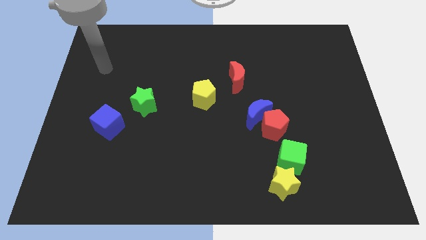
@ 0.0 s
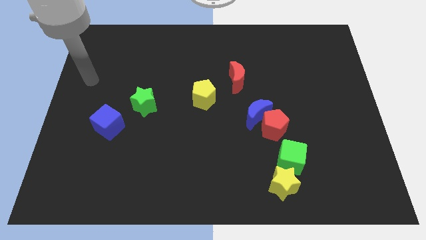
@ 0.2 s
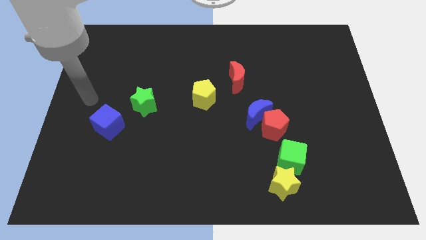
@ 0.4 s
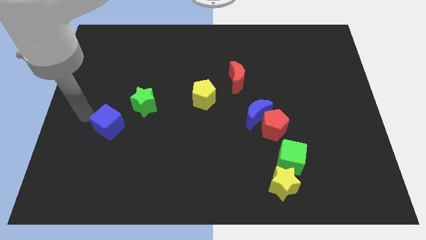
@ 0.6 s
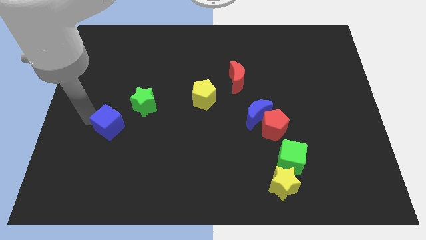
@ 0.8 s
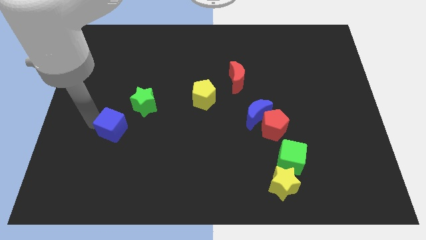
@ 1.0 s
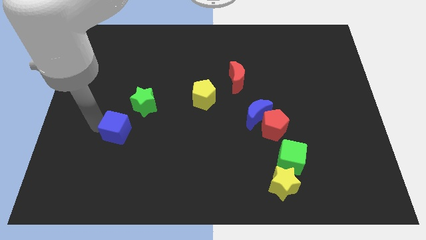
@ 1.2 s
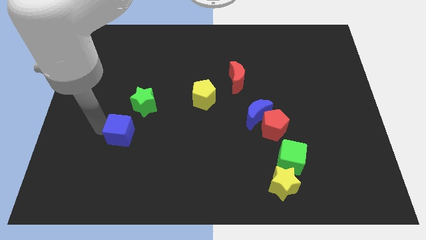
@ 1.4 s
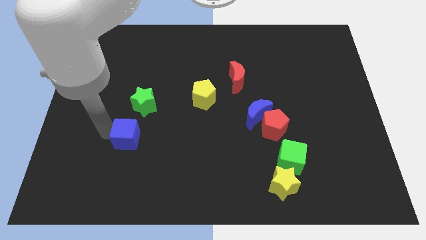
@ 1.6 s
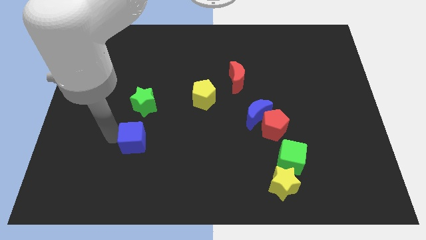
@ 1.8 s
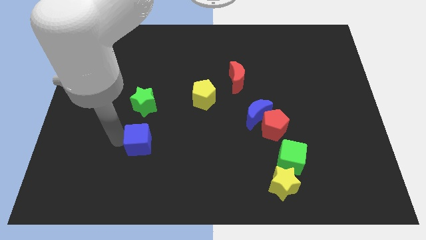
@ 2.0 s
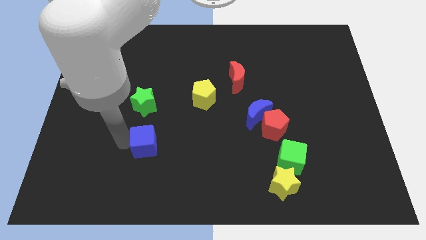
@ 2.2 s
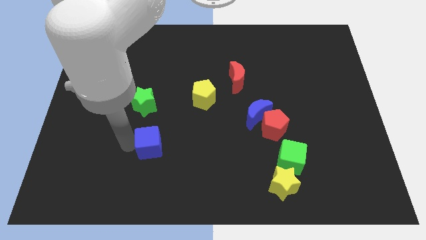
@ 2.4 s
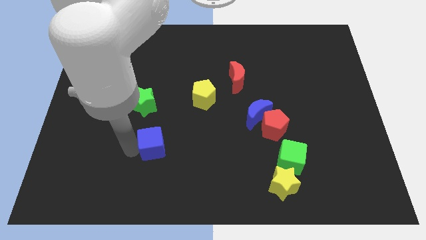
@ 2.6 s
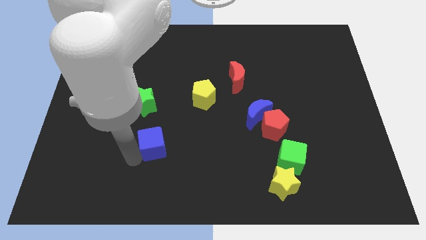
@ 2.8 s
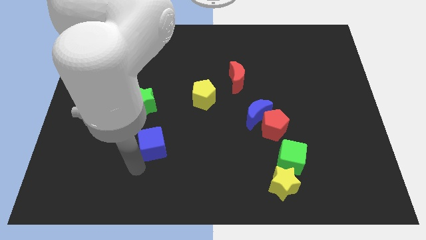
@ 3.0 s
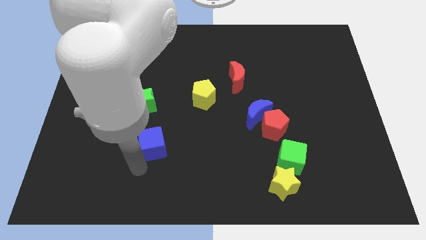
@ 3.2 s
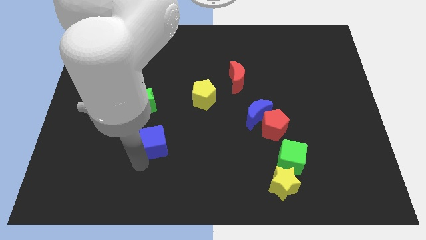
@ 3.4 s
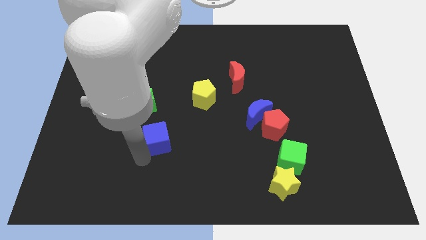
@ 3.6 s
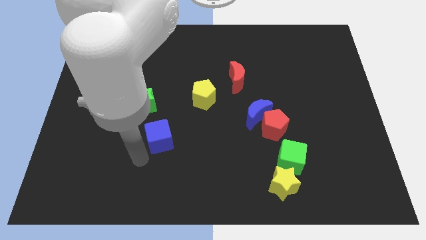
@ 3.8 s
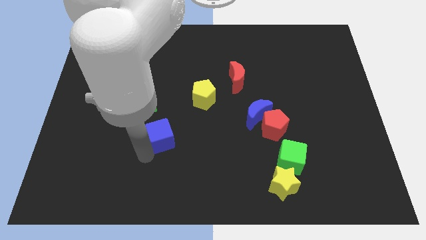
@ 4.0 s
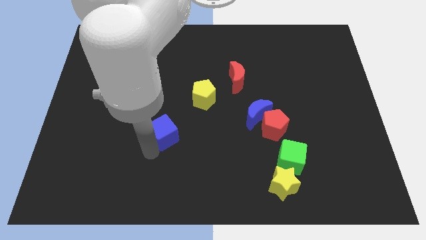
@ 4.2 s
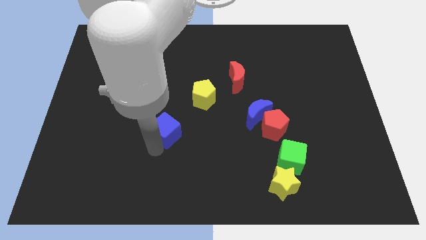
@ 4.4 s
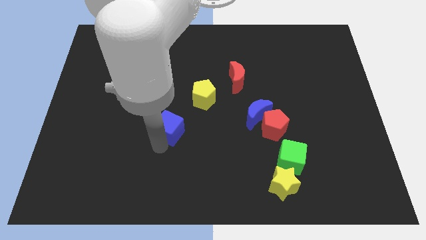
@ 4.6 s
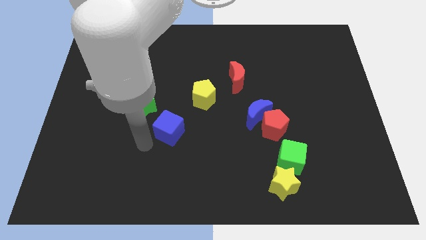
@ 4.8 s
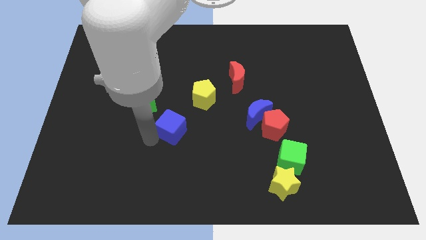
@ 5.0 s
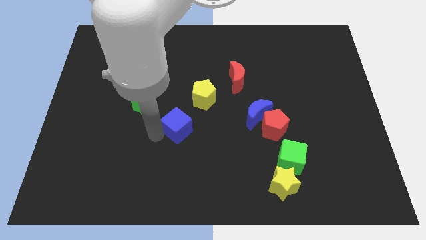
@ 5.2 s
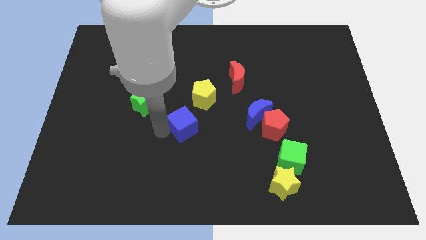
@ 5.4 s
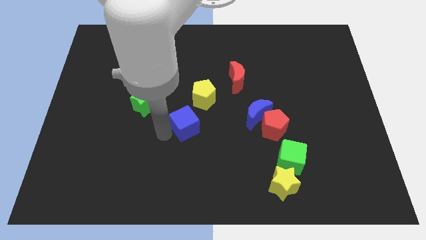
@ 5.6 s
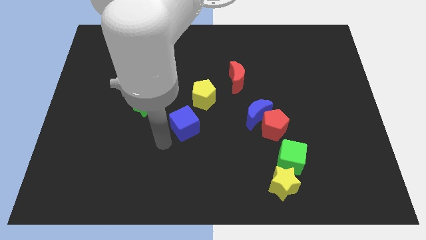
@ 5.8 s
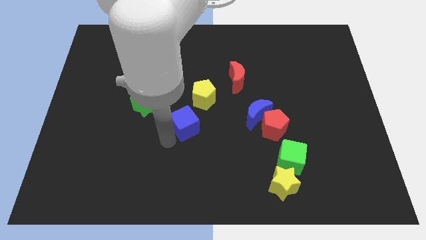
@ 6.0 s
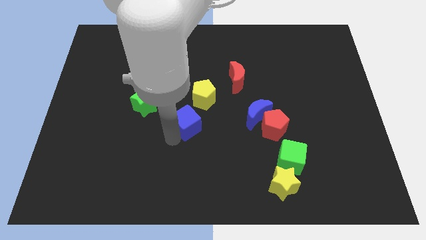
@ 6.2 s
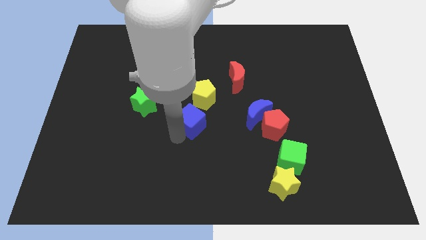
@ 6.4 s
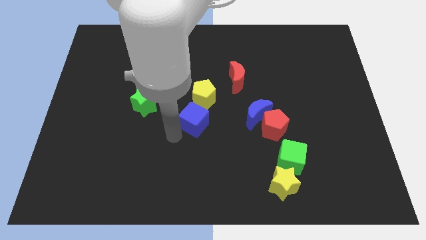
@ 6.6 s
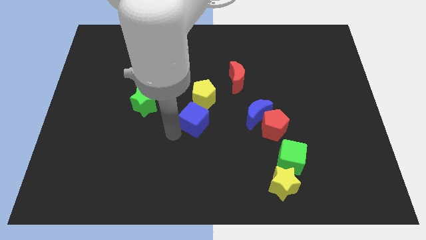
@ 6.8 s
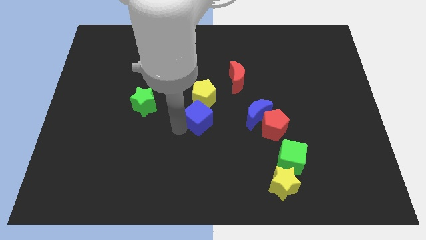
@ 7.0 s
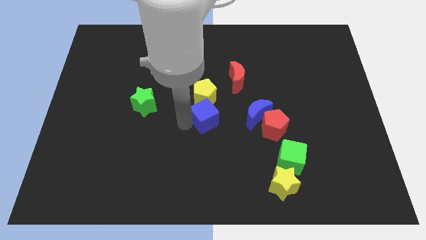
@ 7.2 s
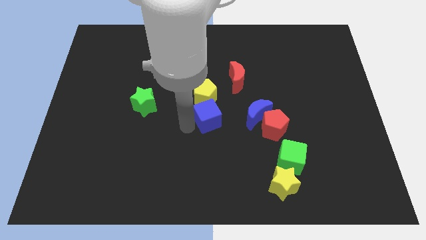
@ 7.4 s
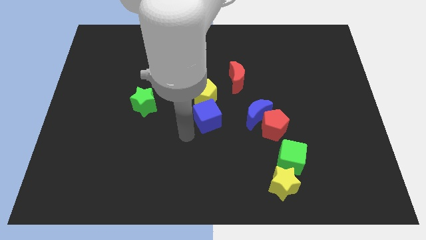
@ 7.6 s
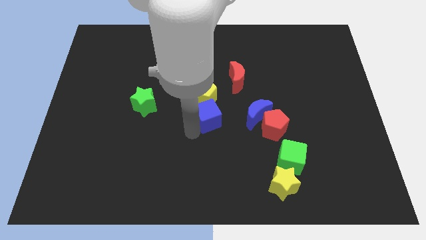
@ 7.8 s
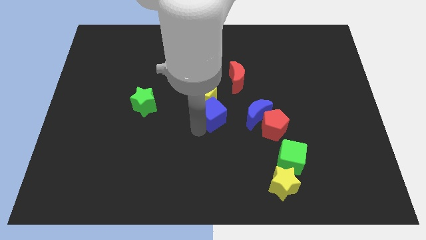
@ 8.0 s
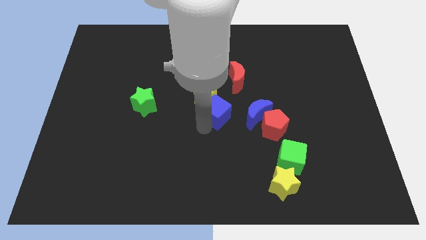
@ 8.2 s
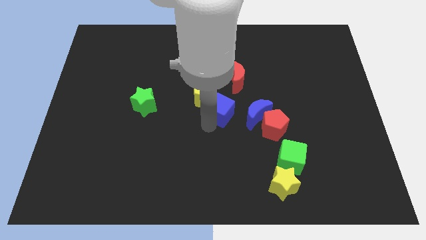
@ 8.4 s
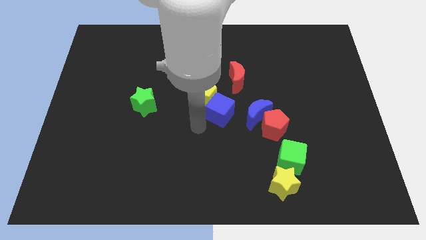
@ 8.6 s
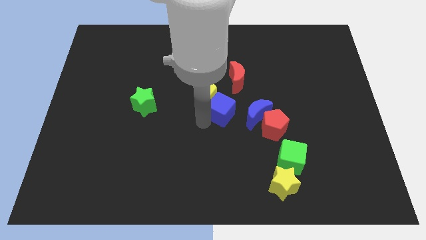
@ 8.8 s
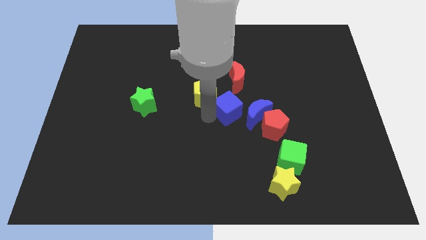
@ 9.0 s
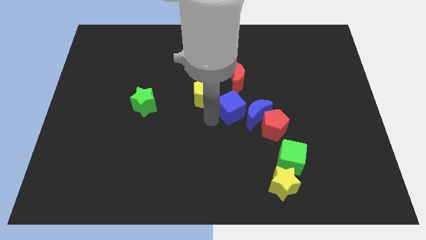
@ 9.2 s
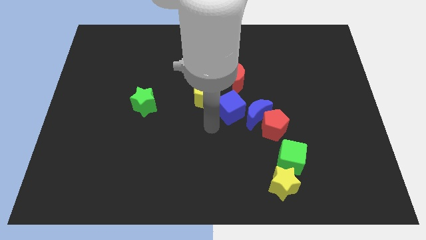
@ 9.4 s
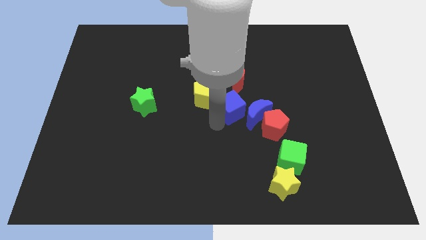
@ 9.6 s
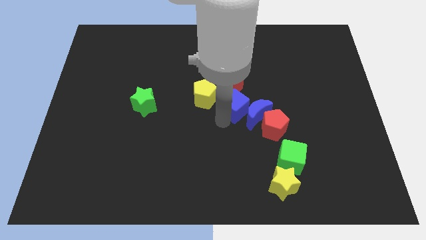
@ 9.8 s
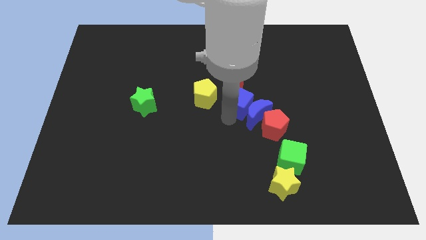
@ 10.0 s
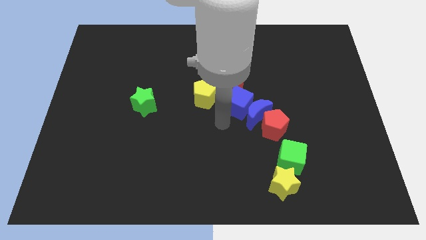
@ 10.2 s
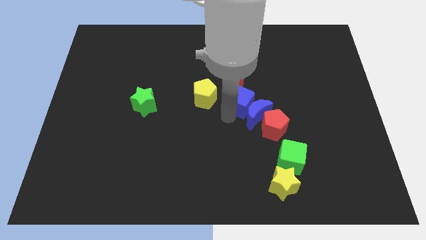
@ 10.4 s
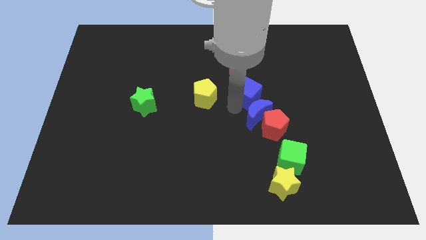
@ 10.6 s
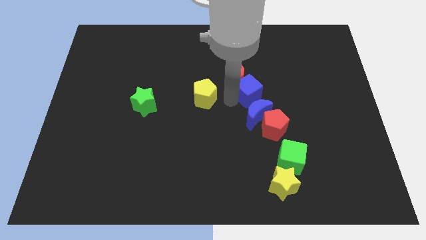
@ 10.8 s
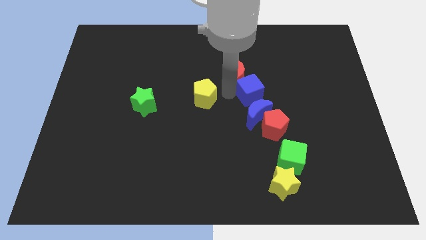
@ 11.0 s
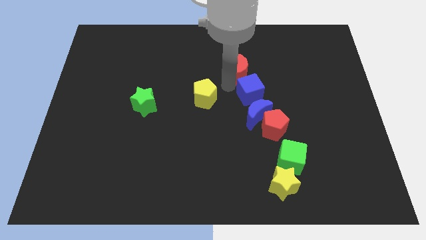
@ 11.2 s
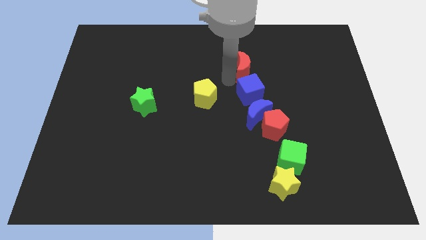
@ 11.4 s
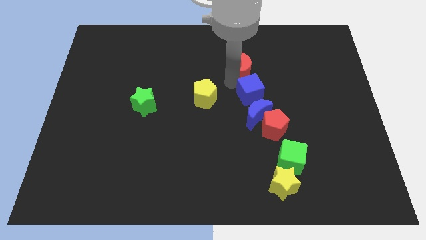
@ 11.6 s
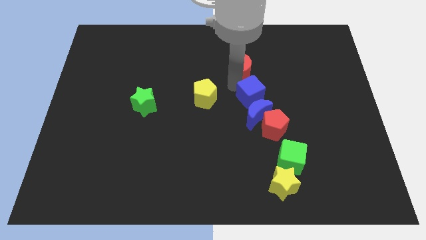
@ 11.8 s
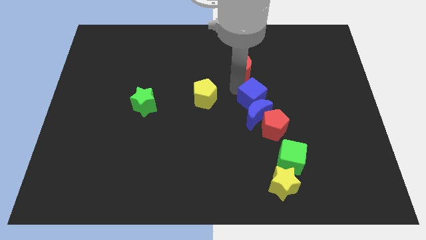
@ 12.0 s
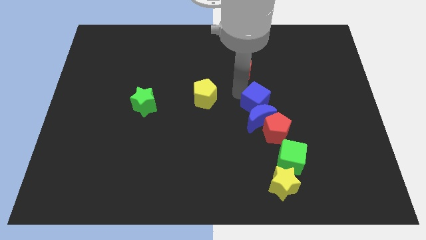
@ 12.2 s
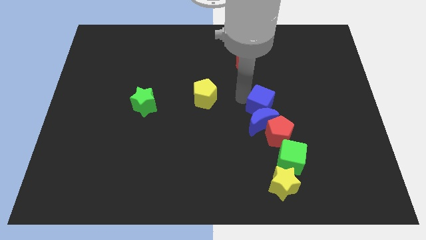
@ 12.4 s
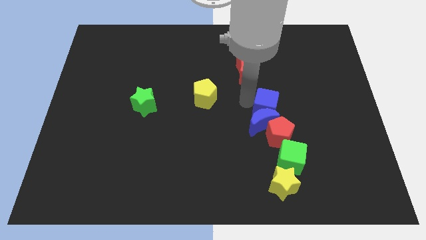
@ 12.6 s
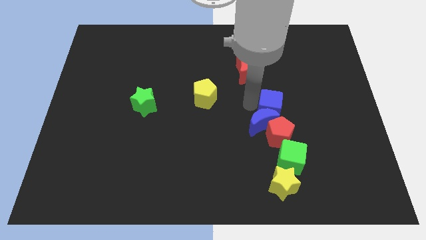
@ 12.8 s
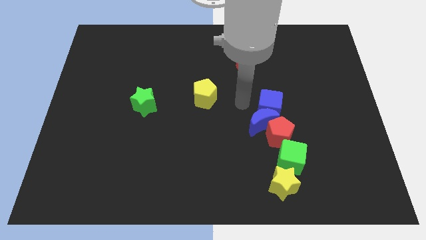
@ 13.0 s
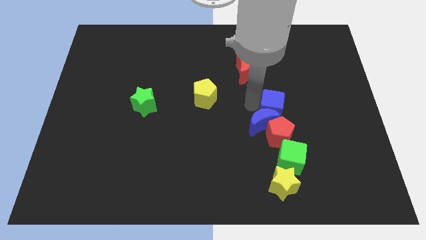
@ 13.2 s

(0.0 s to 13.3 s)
slide the blue cube just right of the blue moon

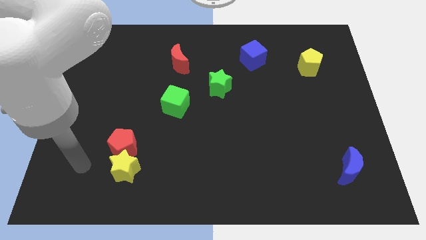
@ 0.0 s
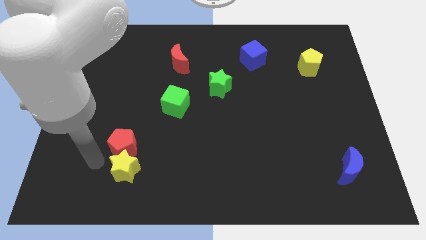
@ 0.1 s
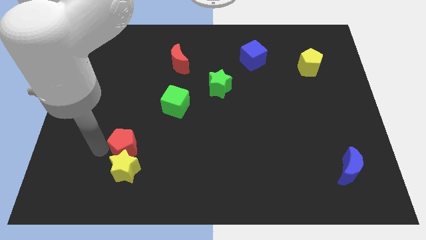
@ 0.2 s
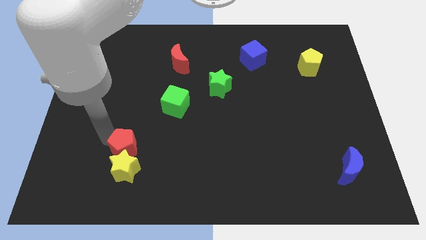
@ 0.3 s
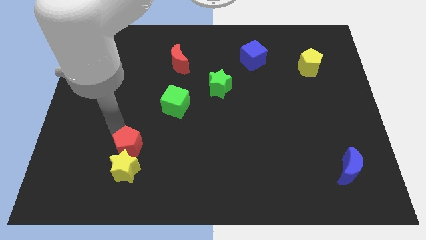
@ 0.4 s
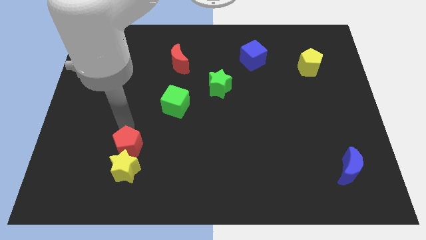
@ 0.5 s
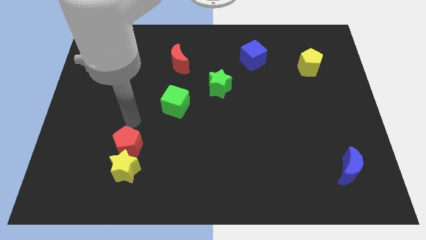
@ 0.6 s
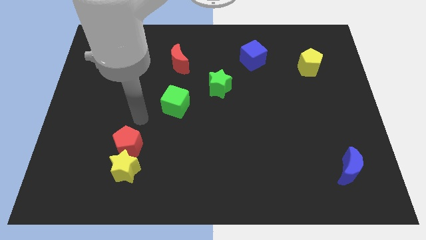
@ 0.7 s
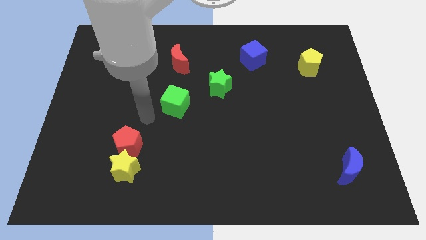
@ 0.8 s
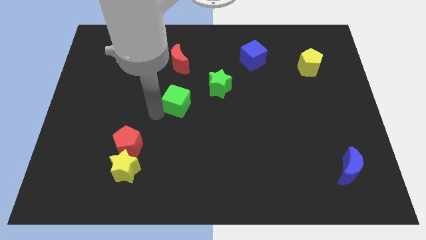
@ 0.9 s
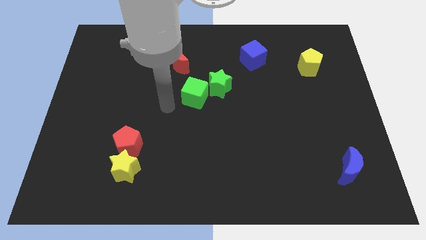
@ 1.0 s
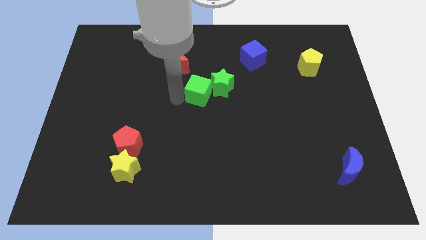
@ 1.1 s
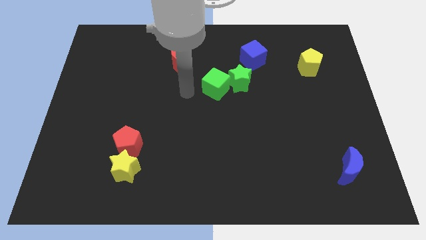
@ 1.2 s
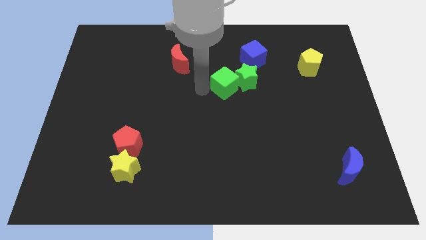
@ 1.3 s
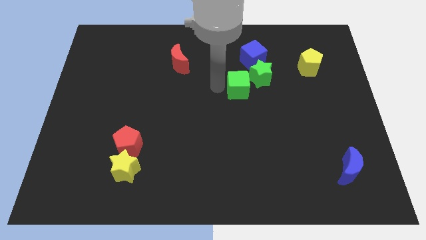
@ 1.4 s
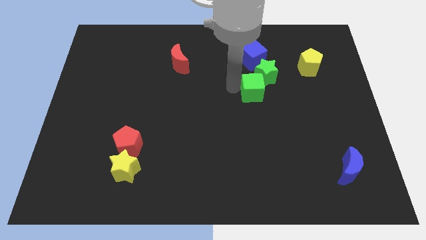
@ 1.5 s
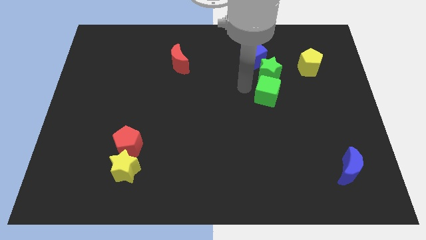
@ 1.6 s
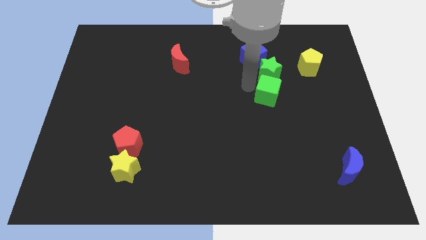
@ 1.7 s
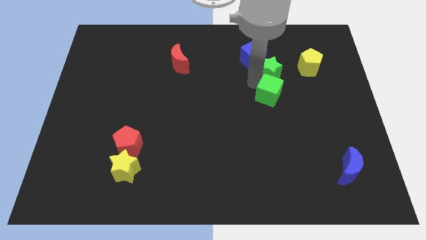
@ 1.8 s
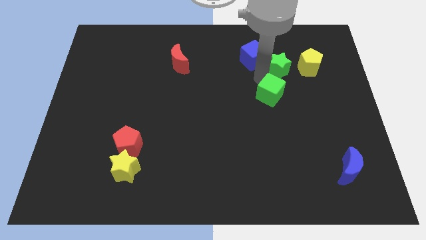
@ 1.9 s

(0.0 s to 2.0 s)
put the green star right of the blue cube
